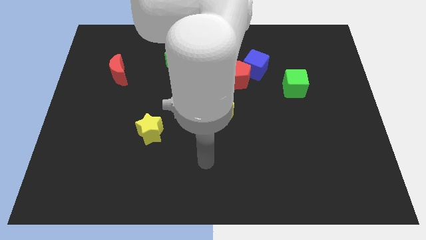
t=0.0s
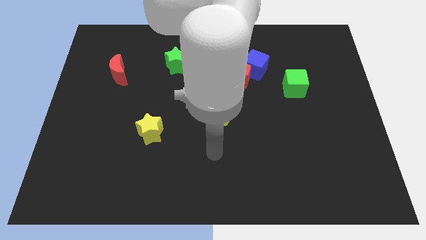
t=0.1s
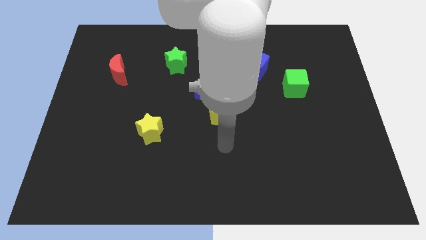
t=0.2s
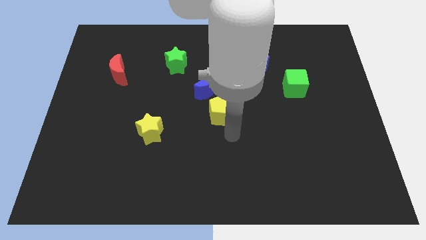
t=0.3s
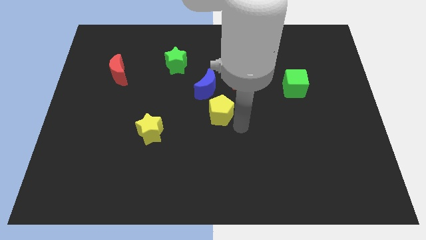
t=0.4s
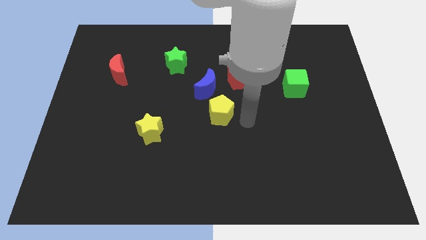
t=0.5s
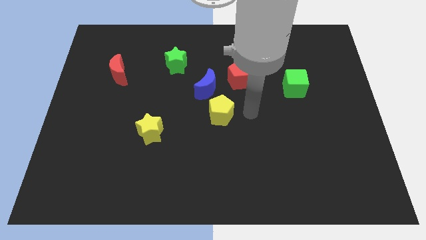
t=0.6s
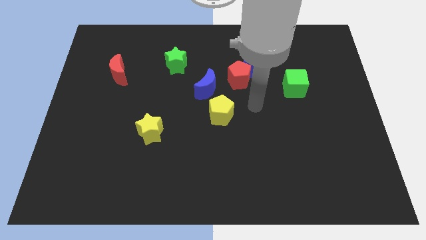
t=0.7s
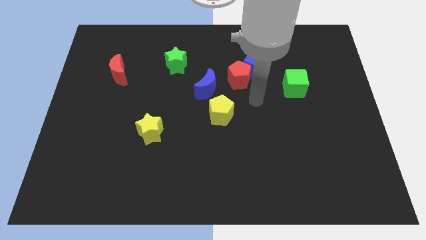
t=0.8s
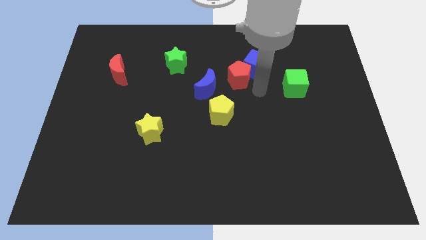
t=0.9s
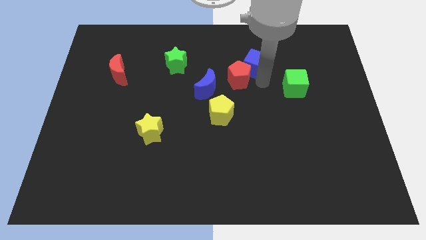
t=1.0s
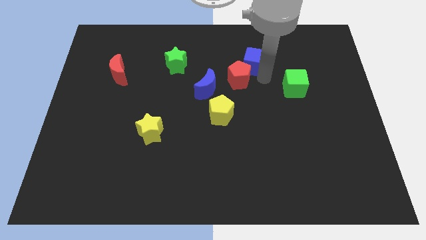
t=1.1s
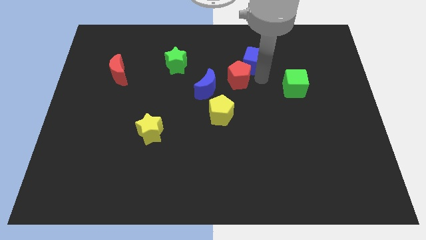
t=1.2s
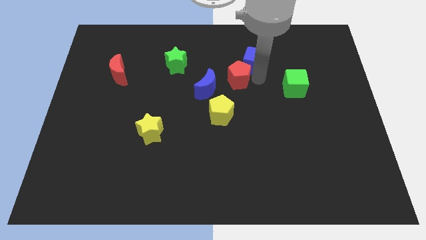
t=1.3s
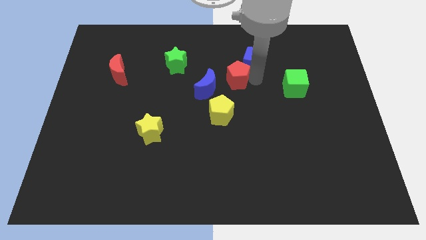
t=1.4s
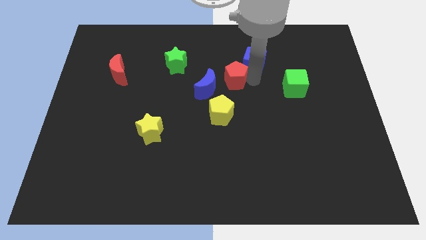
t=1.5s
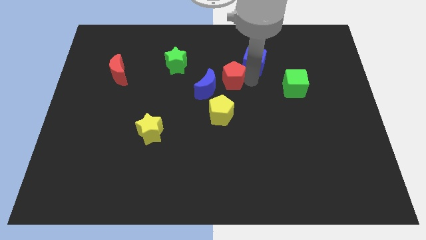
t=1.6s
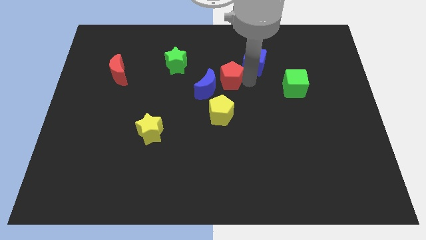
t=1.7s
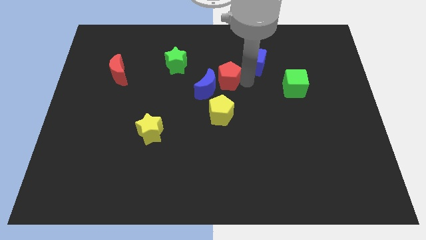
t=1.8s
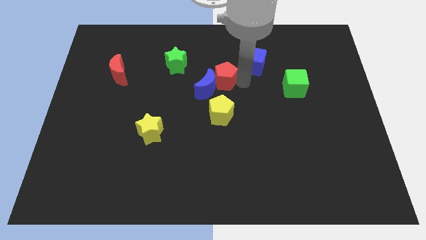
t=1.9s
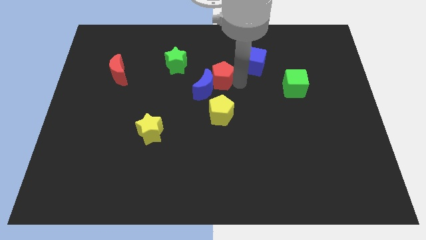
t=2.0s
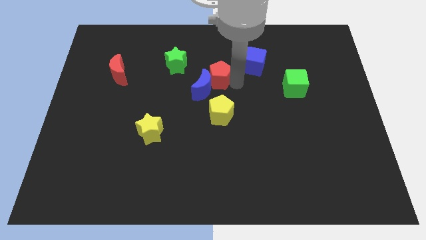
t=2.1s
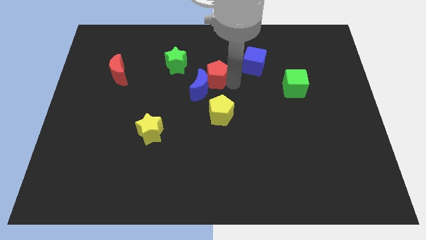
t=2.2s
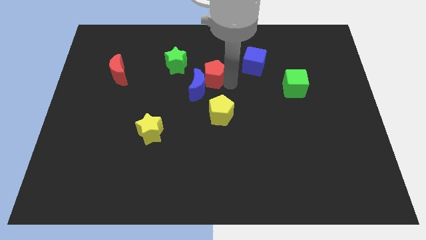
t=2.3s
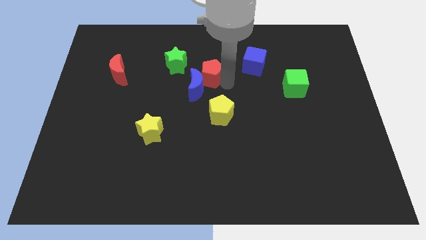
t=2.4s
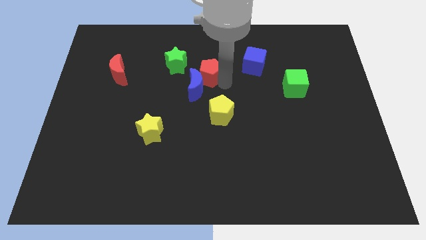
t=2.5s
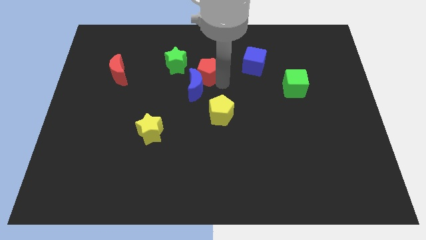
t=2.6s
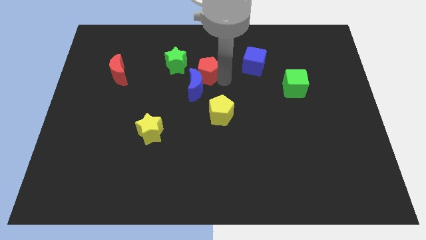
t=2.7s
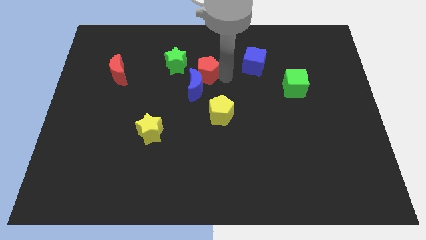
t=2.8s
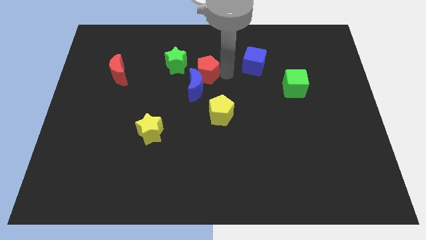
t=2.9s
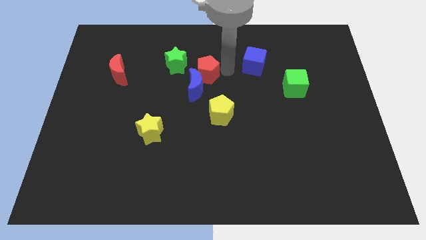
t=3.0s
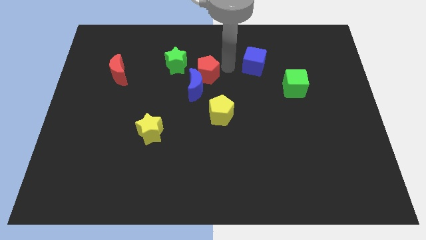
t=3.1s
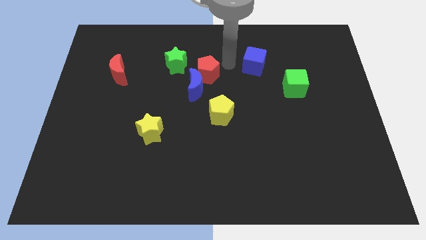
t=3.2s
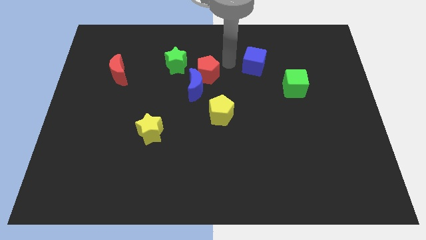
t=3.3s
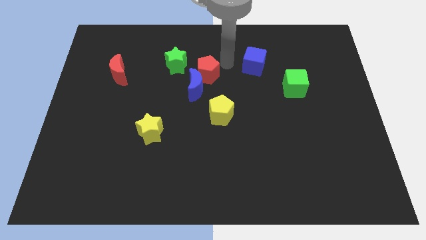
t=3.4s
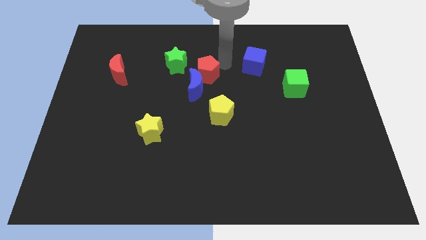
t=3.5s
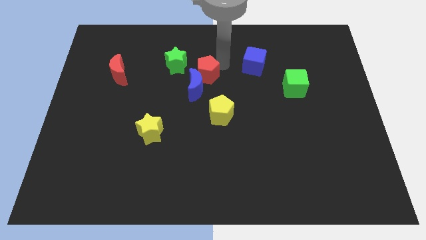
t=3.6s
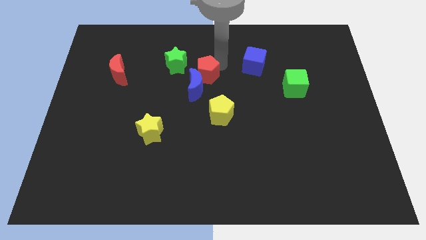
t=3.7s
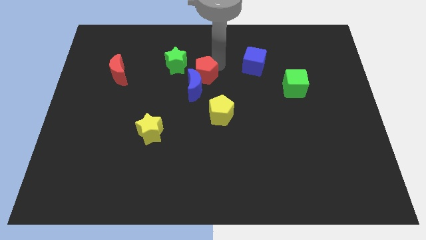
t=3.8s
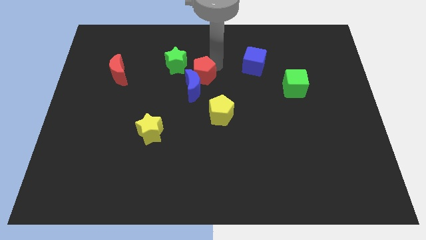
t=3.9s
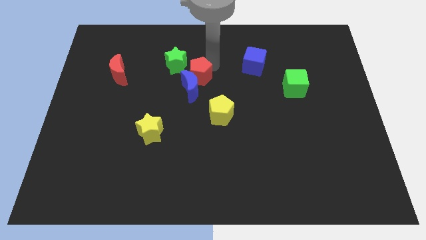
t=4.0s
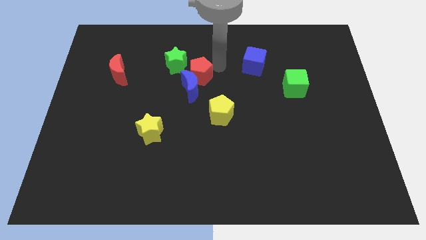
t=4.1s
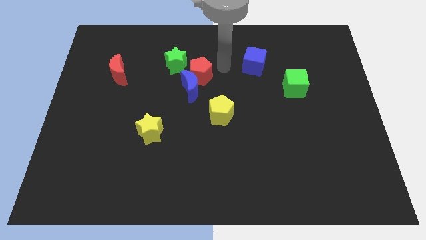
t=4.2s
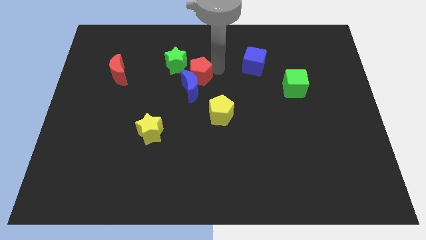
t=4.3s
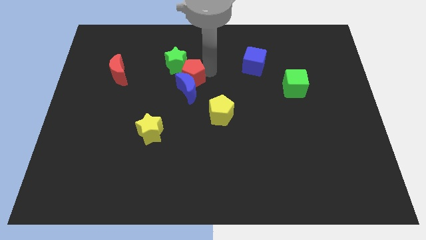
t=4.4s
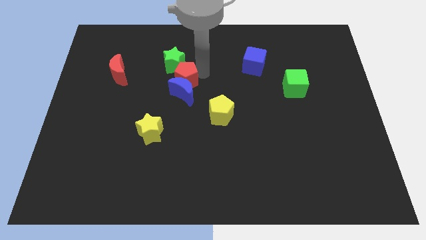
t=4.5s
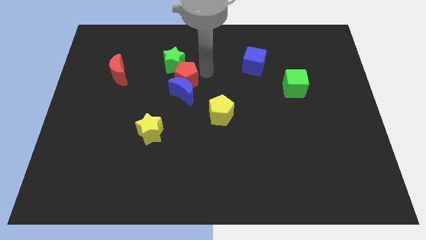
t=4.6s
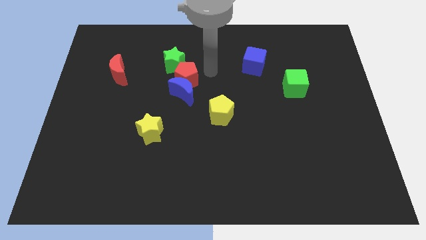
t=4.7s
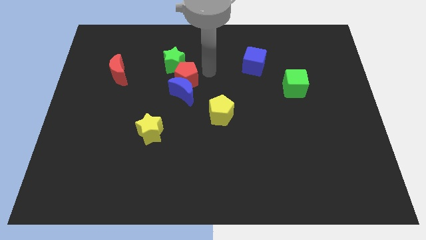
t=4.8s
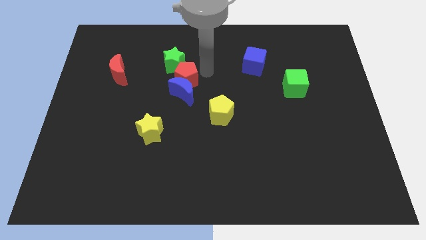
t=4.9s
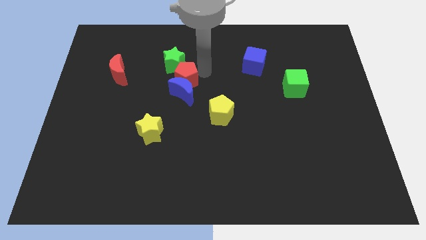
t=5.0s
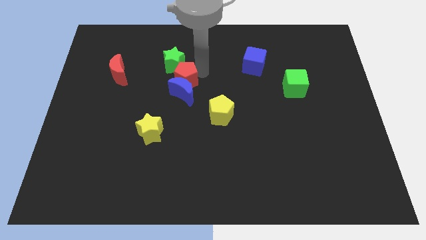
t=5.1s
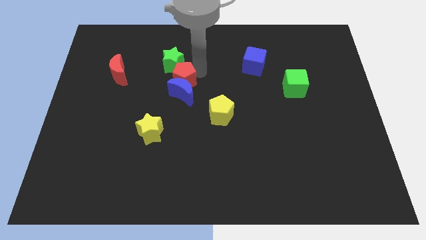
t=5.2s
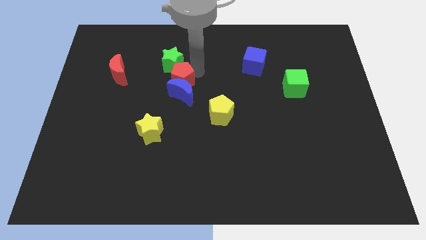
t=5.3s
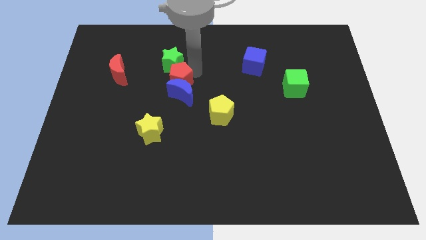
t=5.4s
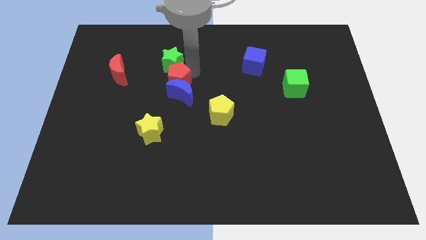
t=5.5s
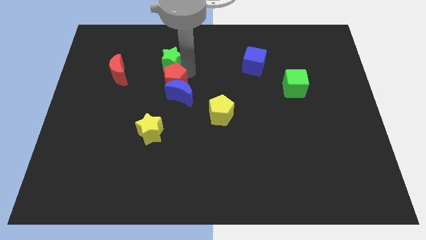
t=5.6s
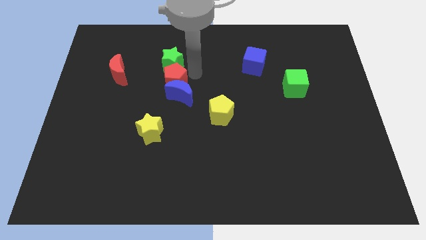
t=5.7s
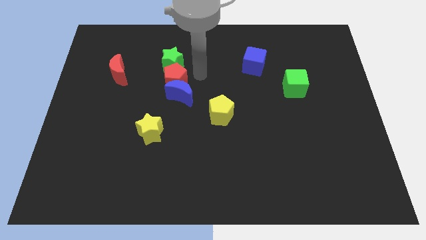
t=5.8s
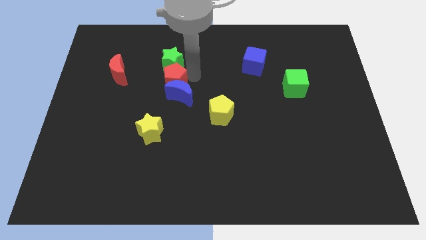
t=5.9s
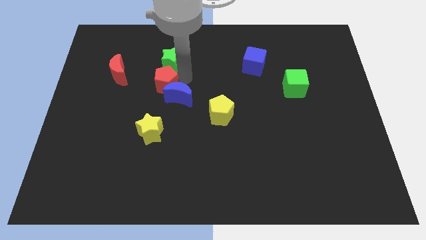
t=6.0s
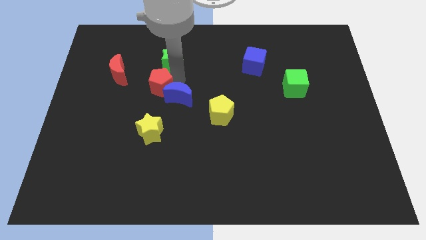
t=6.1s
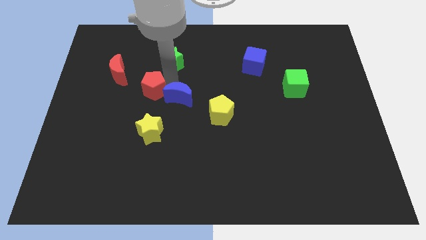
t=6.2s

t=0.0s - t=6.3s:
put the red pentagon to the bottom right side of the red moon
